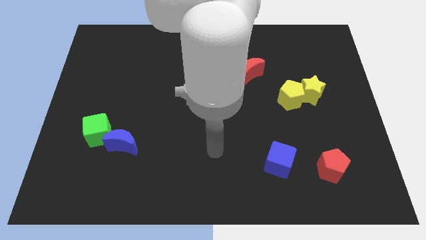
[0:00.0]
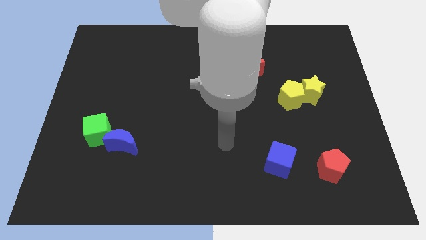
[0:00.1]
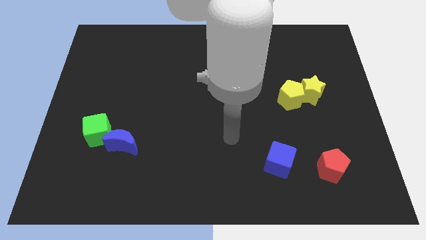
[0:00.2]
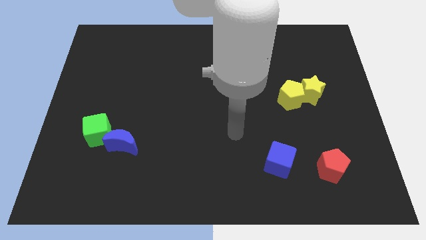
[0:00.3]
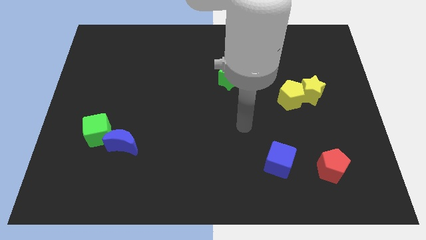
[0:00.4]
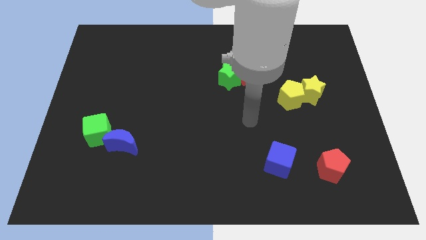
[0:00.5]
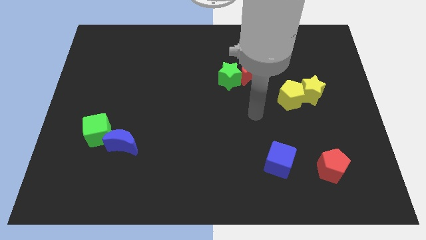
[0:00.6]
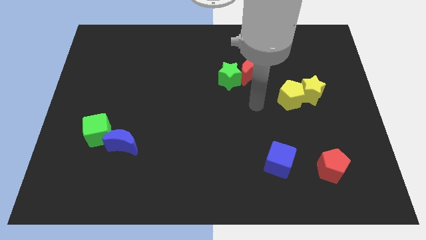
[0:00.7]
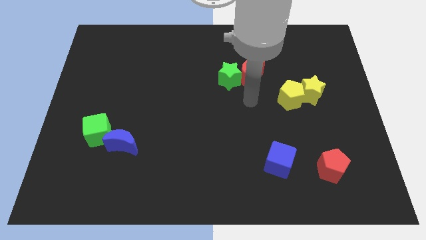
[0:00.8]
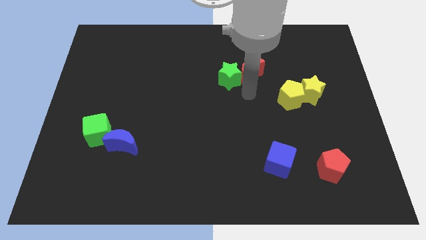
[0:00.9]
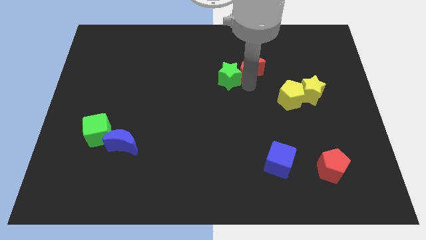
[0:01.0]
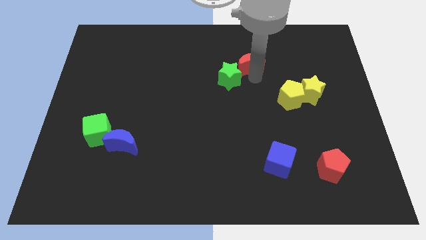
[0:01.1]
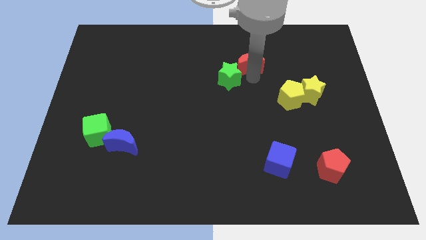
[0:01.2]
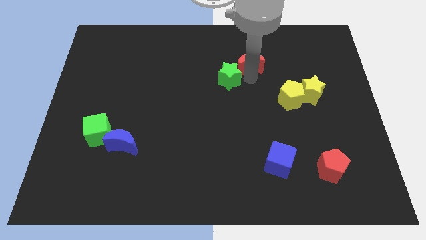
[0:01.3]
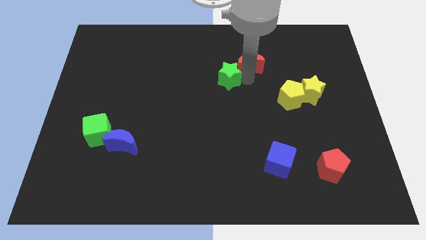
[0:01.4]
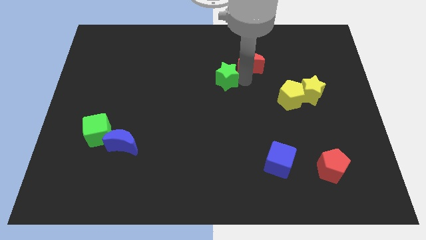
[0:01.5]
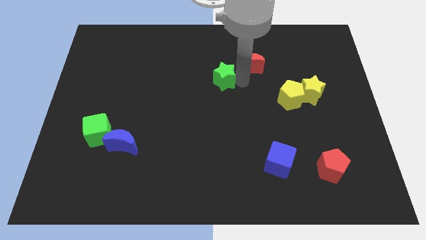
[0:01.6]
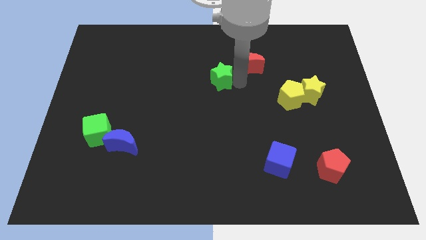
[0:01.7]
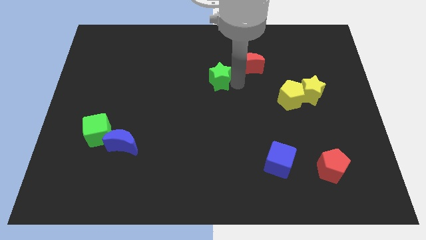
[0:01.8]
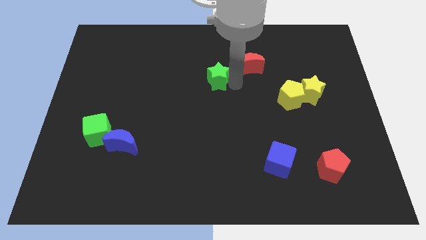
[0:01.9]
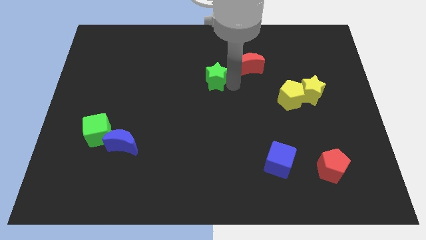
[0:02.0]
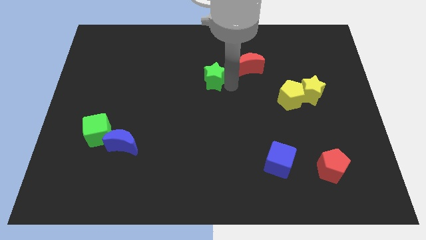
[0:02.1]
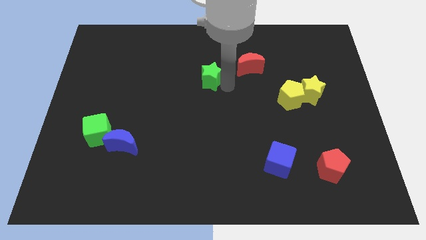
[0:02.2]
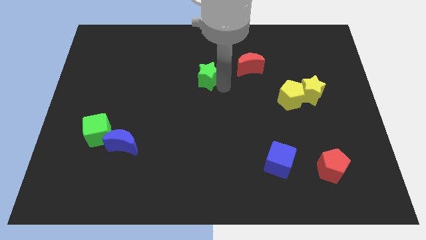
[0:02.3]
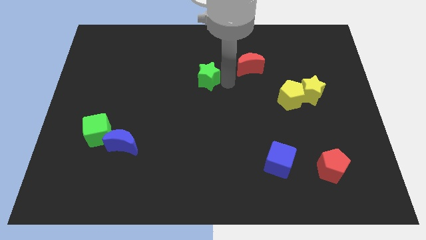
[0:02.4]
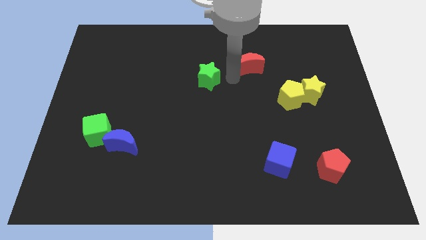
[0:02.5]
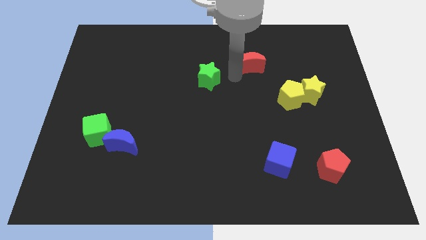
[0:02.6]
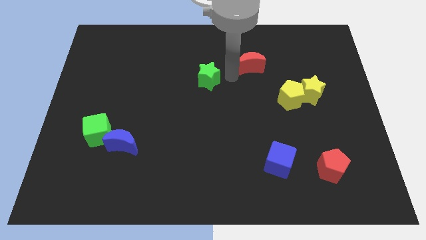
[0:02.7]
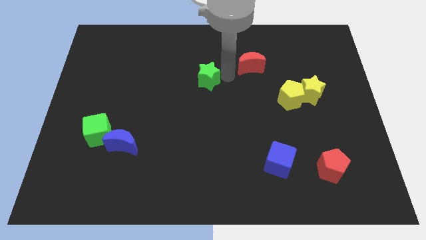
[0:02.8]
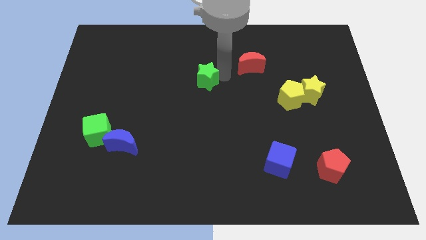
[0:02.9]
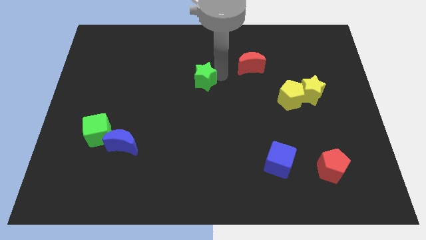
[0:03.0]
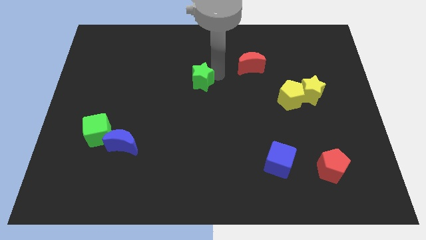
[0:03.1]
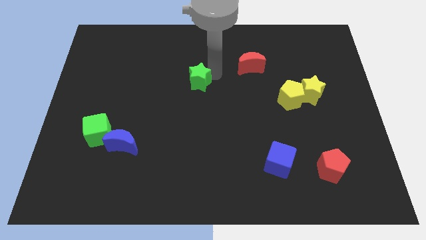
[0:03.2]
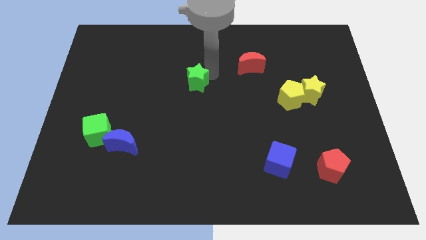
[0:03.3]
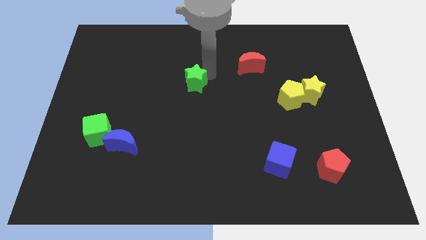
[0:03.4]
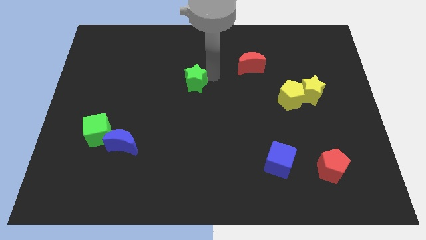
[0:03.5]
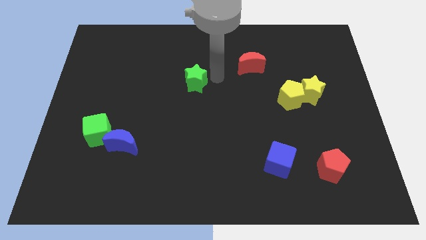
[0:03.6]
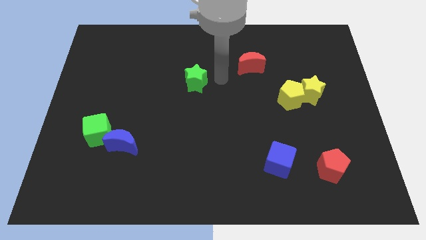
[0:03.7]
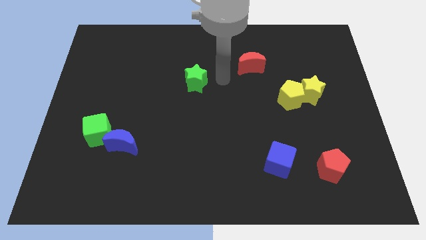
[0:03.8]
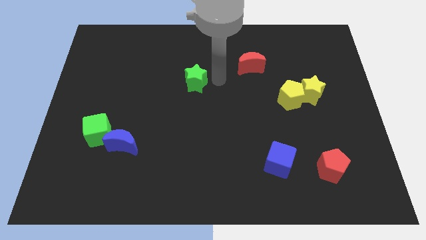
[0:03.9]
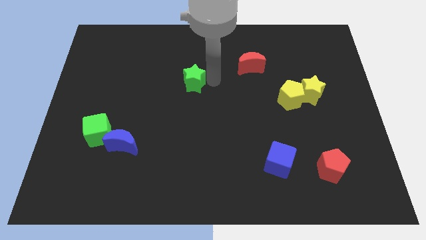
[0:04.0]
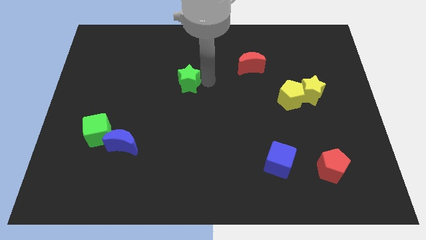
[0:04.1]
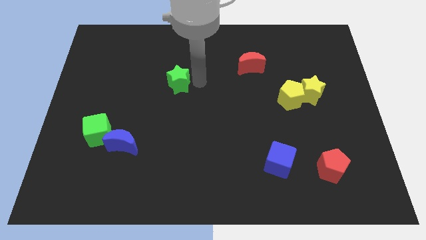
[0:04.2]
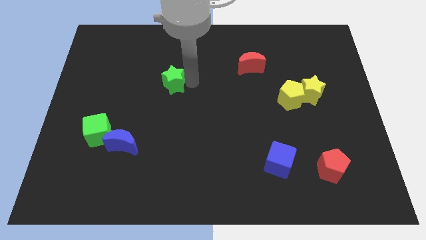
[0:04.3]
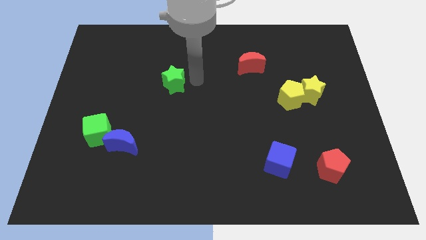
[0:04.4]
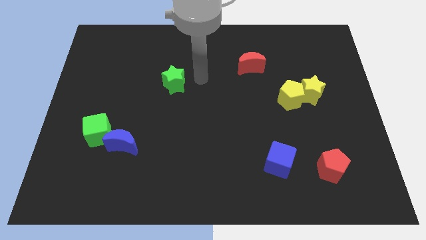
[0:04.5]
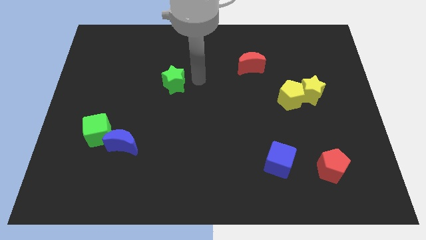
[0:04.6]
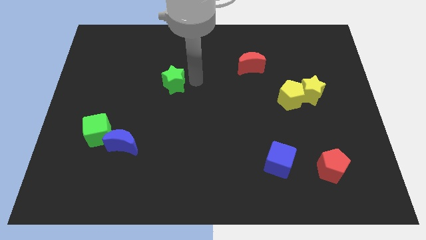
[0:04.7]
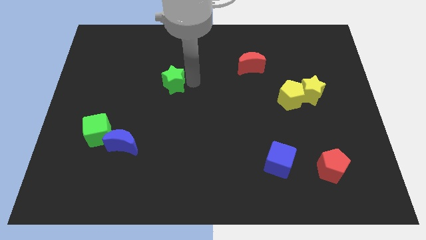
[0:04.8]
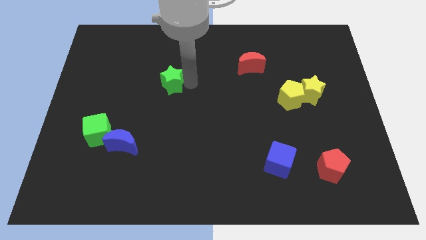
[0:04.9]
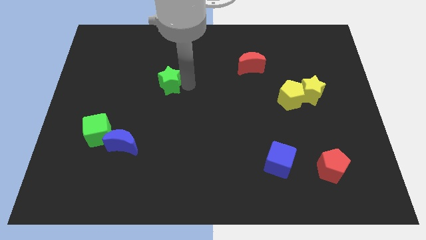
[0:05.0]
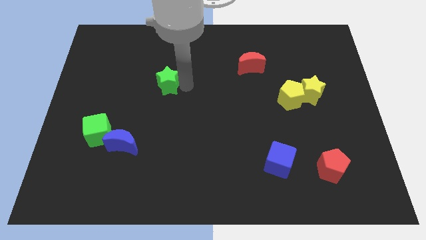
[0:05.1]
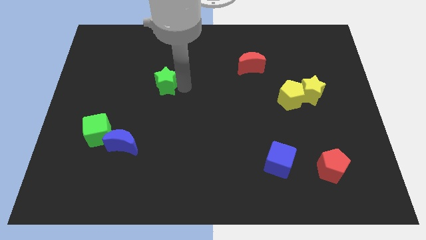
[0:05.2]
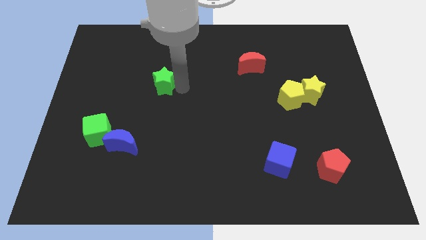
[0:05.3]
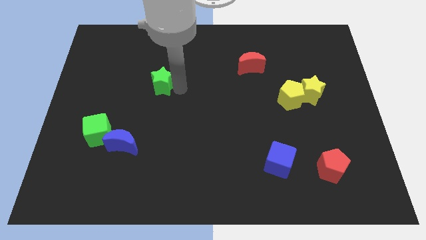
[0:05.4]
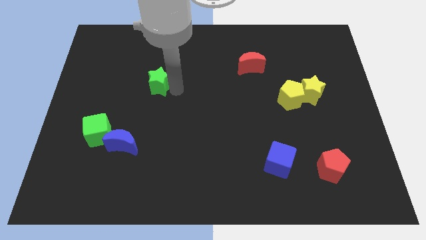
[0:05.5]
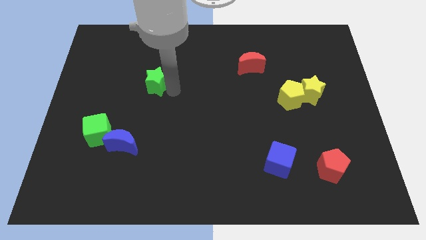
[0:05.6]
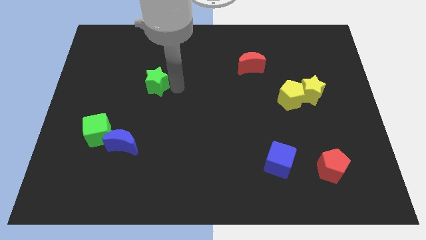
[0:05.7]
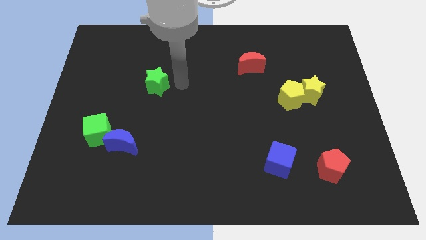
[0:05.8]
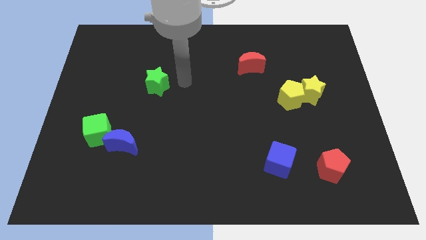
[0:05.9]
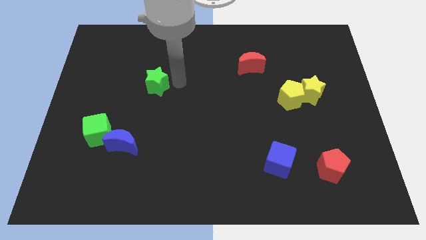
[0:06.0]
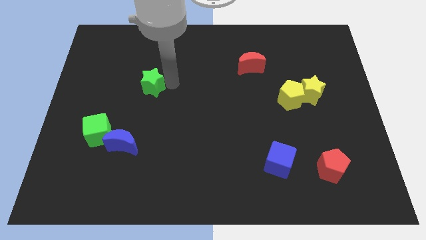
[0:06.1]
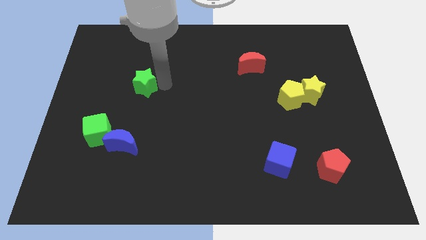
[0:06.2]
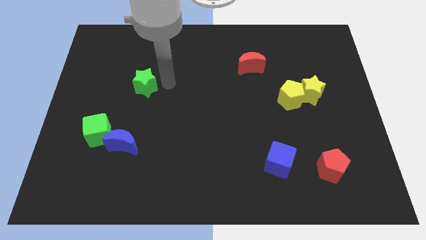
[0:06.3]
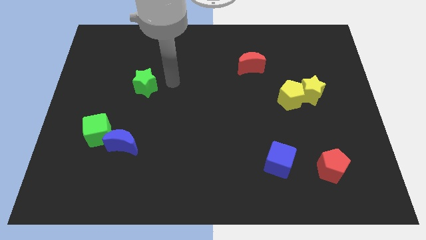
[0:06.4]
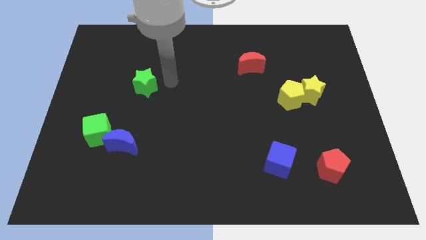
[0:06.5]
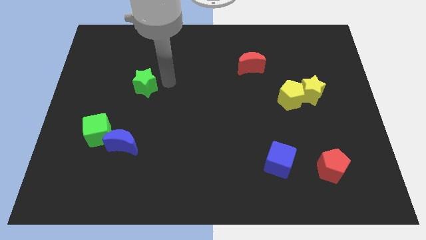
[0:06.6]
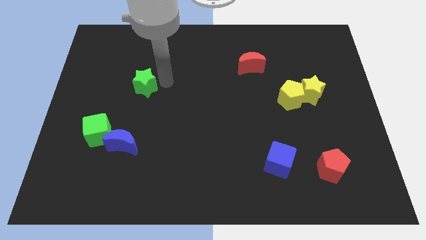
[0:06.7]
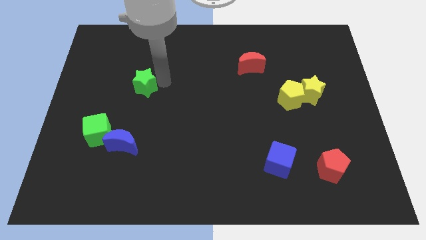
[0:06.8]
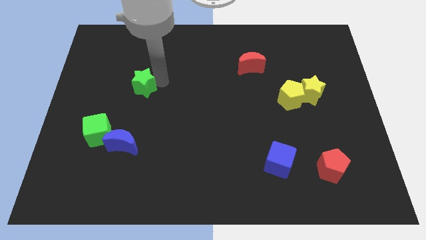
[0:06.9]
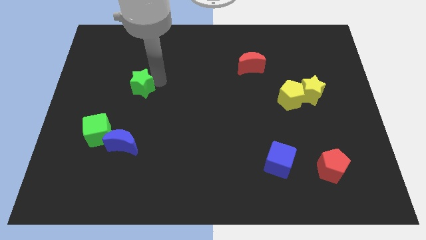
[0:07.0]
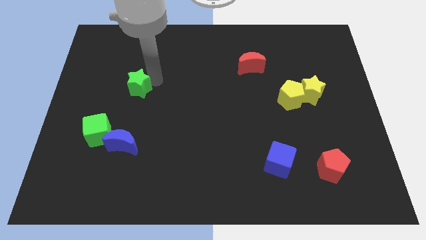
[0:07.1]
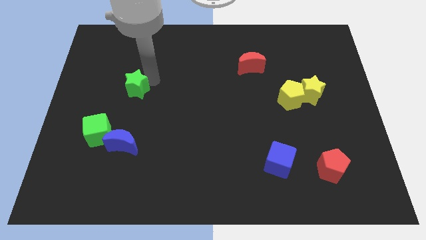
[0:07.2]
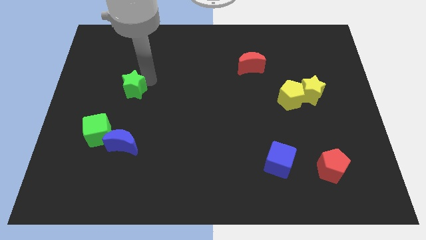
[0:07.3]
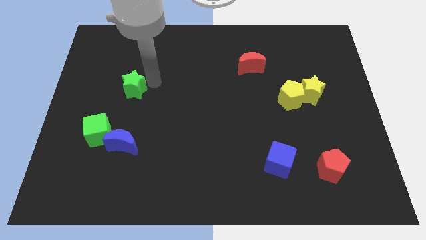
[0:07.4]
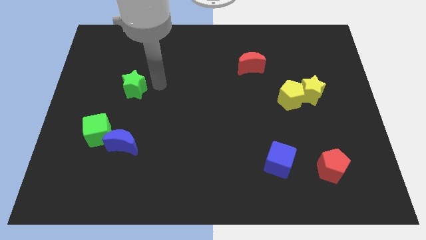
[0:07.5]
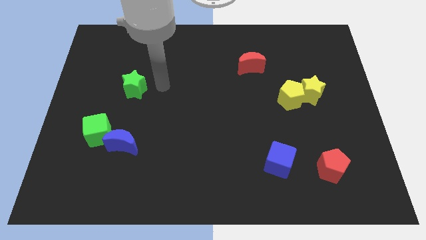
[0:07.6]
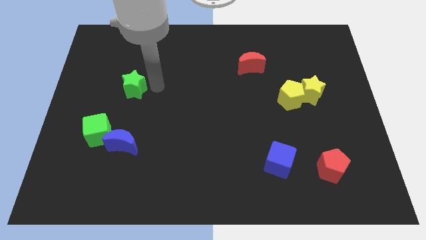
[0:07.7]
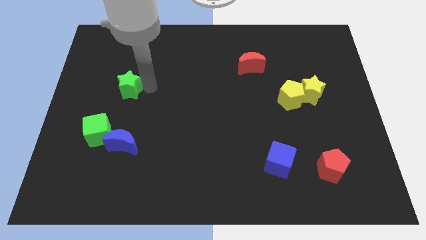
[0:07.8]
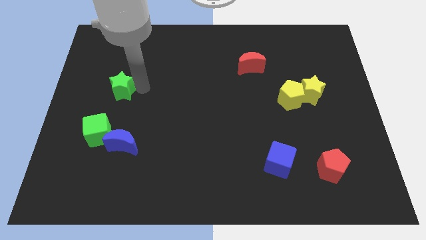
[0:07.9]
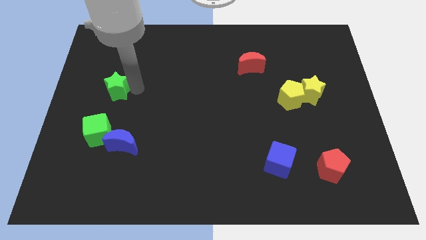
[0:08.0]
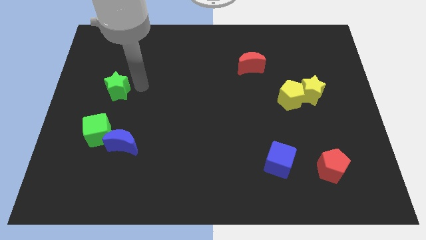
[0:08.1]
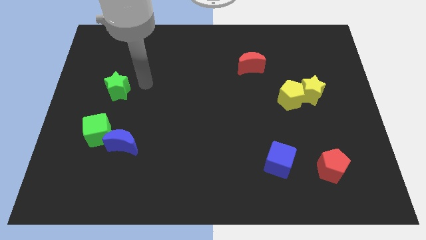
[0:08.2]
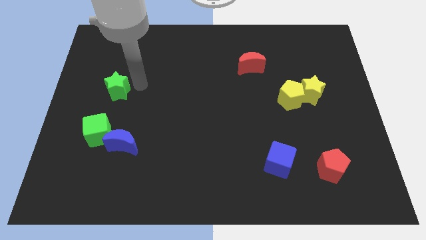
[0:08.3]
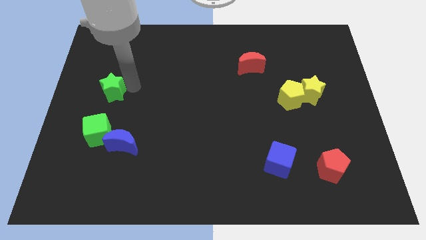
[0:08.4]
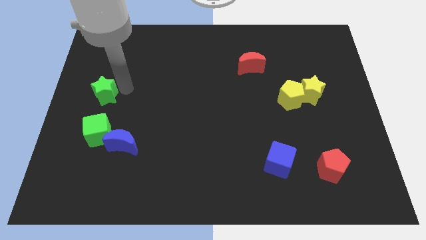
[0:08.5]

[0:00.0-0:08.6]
push the green star to the left side of the board
